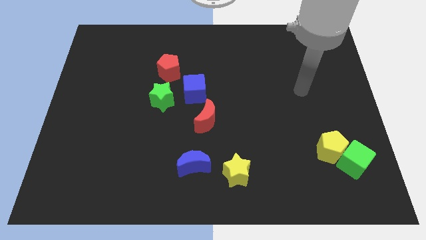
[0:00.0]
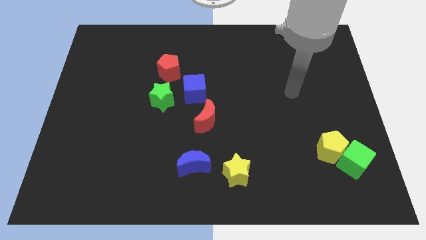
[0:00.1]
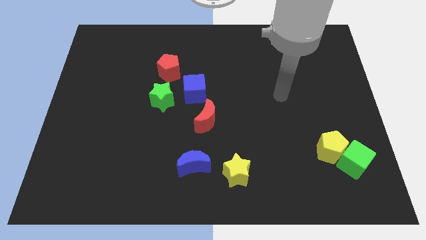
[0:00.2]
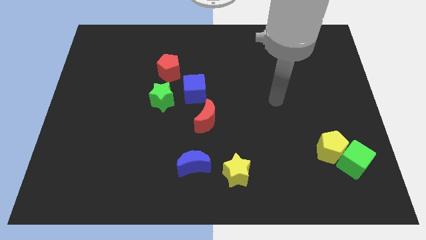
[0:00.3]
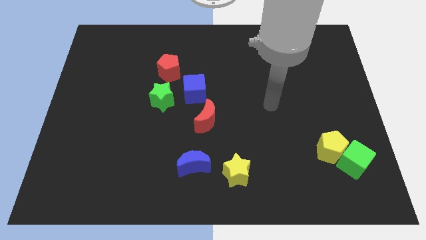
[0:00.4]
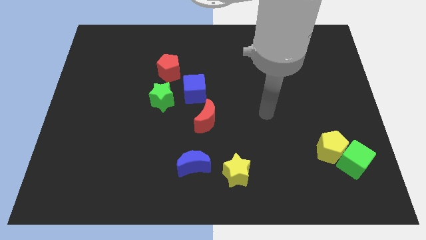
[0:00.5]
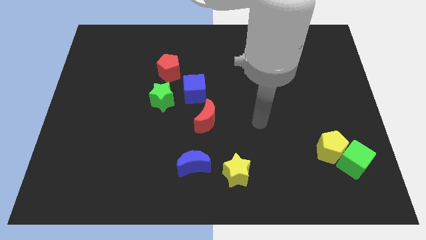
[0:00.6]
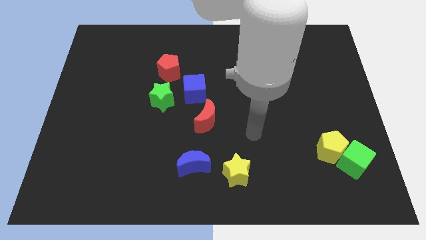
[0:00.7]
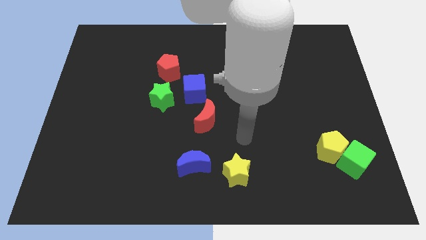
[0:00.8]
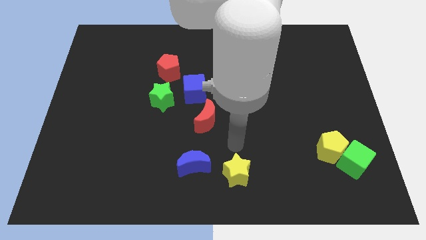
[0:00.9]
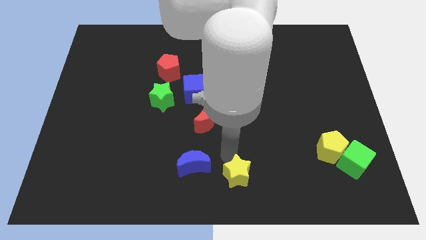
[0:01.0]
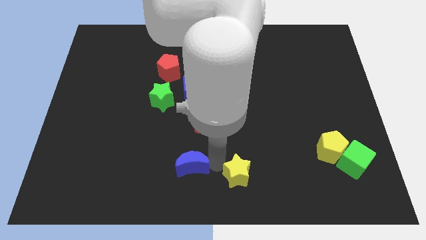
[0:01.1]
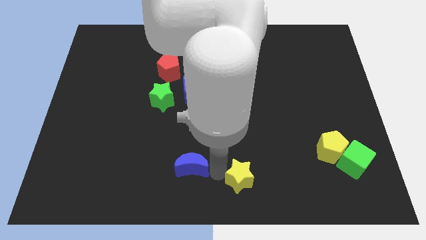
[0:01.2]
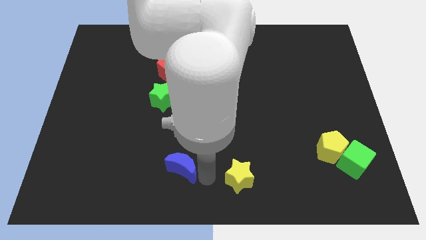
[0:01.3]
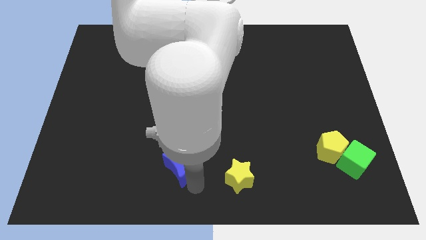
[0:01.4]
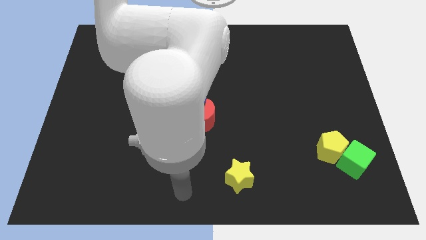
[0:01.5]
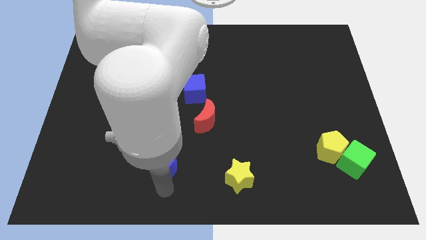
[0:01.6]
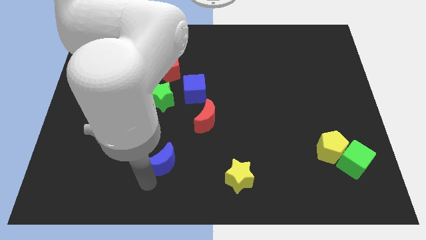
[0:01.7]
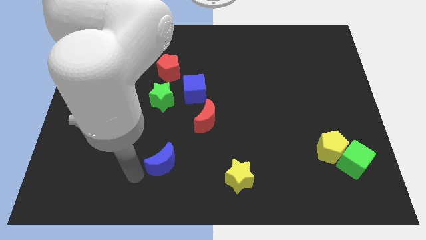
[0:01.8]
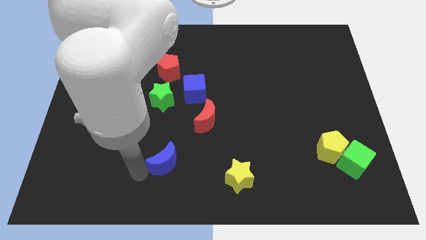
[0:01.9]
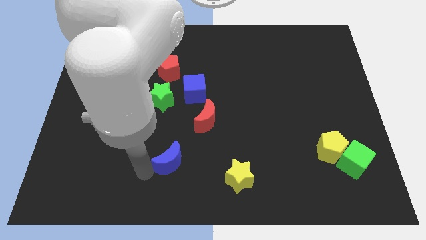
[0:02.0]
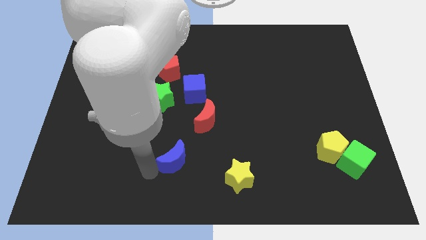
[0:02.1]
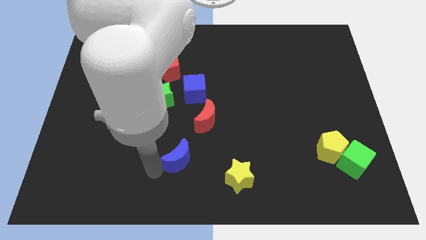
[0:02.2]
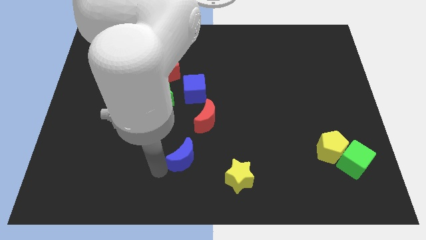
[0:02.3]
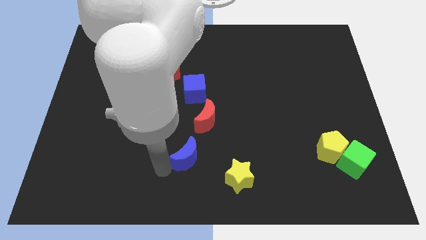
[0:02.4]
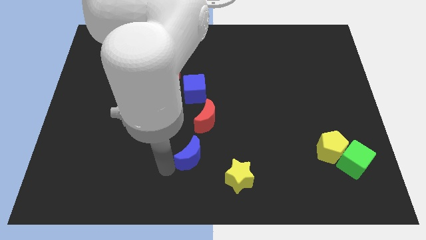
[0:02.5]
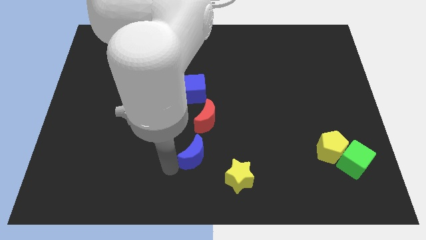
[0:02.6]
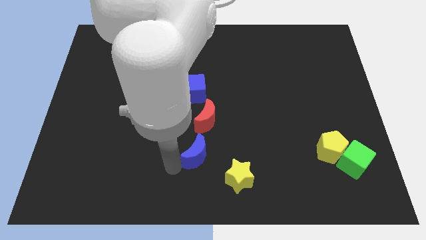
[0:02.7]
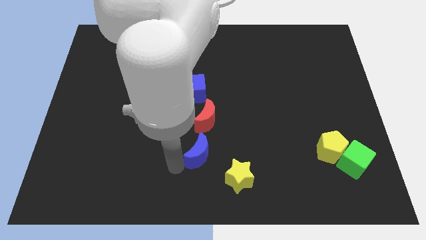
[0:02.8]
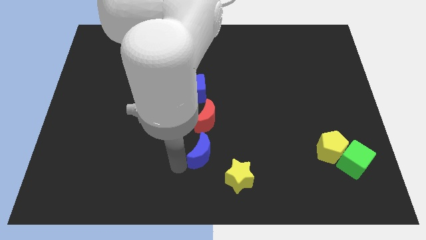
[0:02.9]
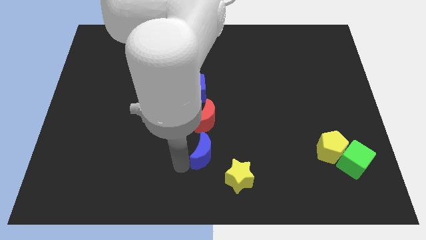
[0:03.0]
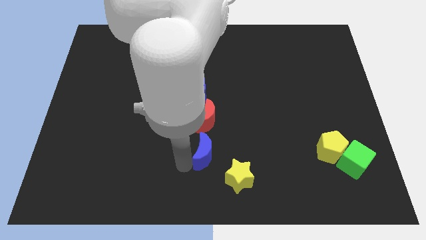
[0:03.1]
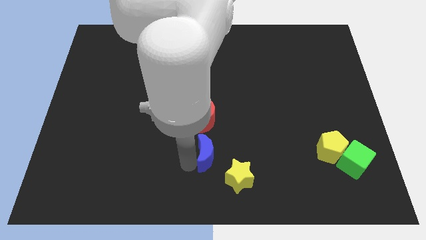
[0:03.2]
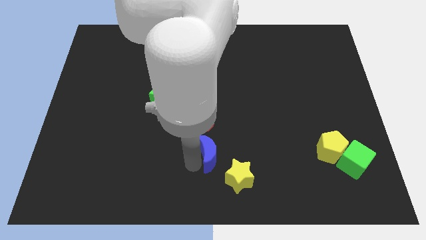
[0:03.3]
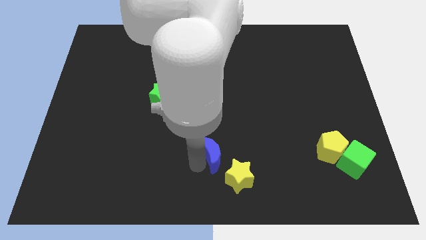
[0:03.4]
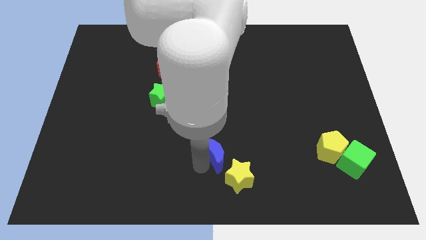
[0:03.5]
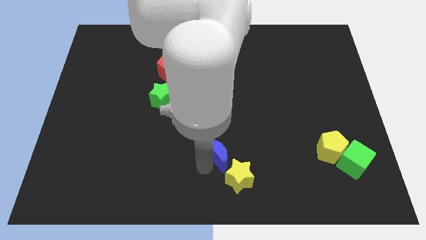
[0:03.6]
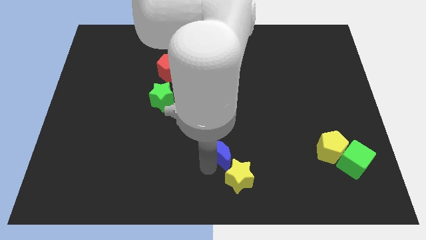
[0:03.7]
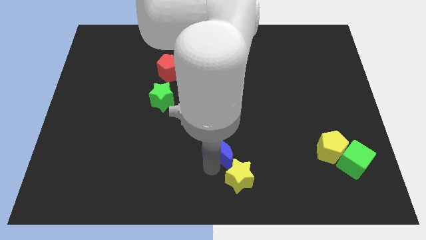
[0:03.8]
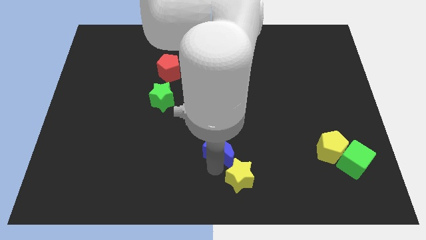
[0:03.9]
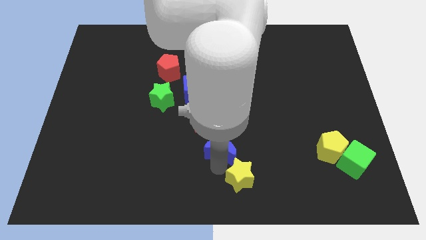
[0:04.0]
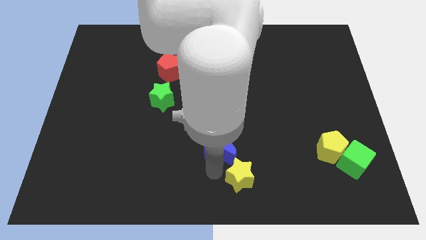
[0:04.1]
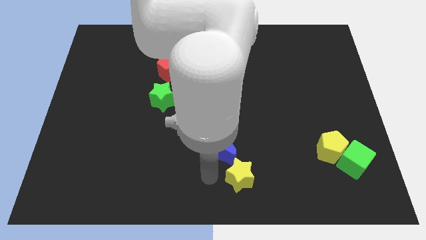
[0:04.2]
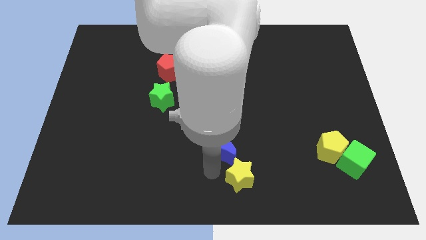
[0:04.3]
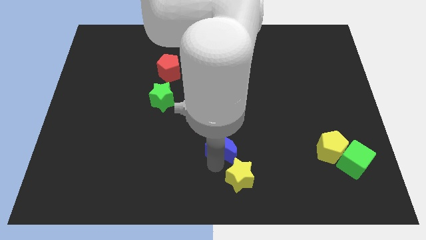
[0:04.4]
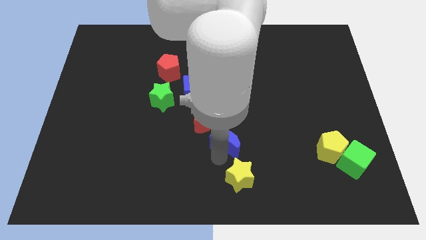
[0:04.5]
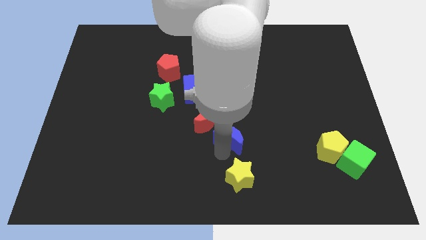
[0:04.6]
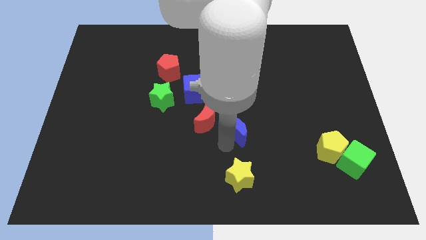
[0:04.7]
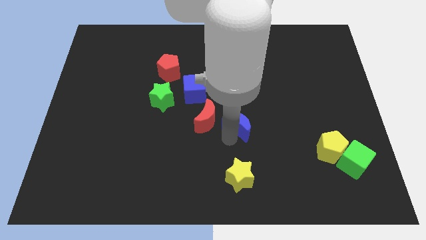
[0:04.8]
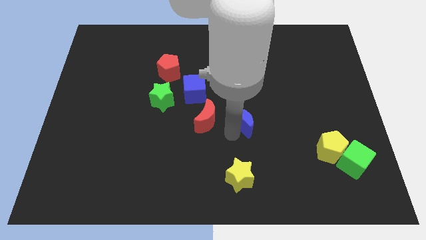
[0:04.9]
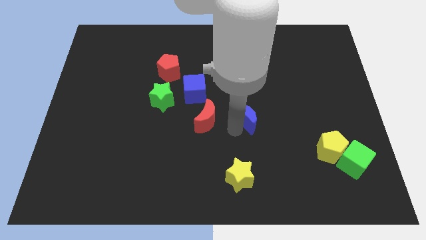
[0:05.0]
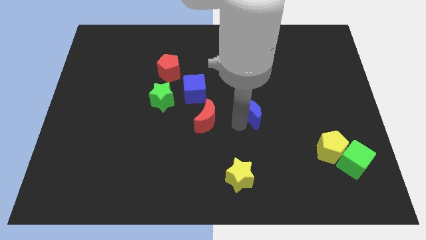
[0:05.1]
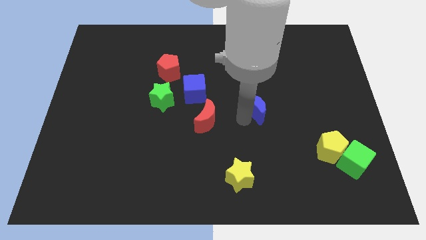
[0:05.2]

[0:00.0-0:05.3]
slide the blue moon diagonally up and to the right

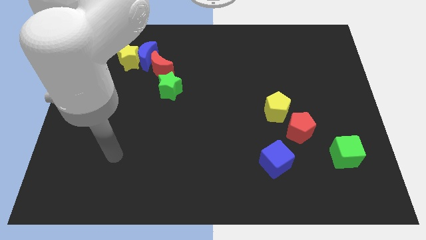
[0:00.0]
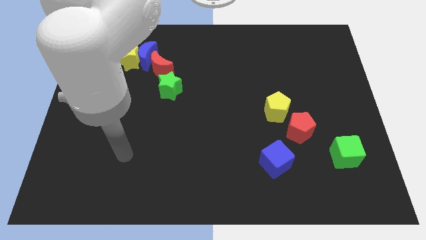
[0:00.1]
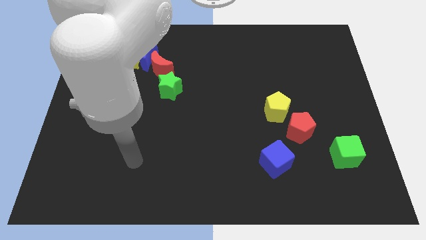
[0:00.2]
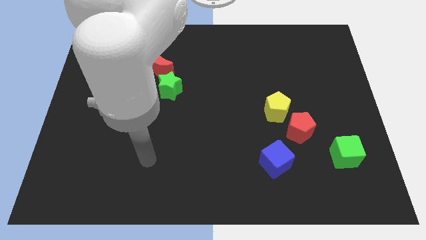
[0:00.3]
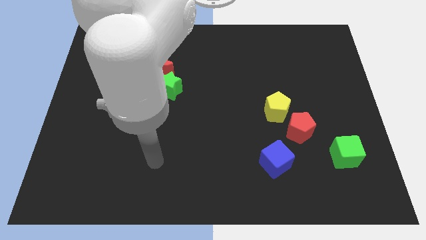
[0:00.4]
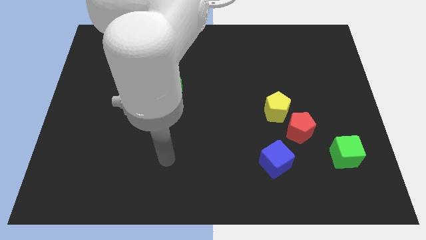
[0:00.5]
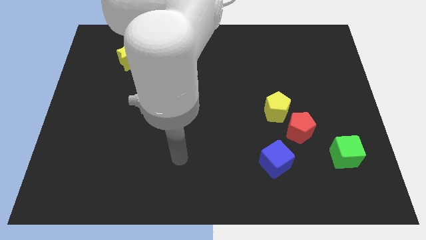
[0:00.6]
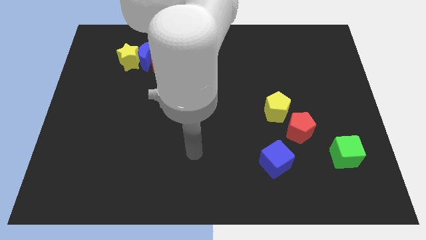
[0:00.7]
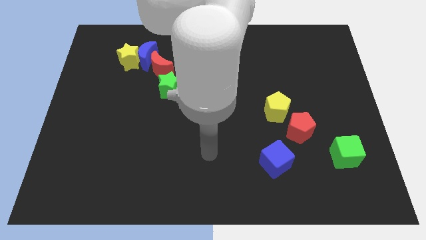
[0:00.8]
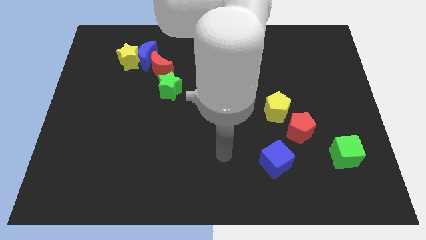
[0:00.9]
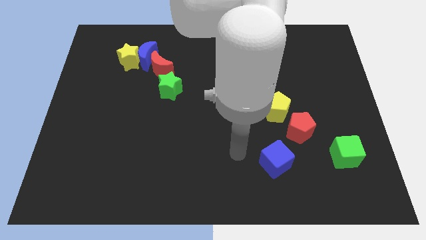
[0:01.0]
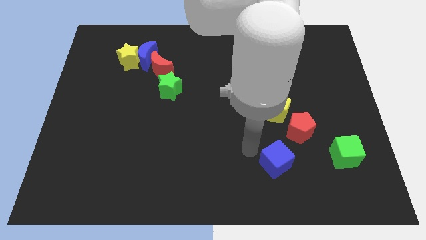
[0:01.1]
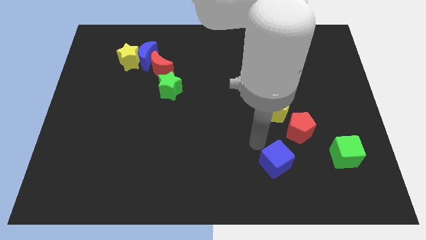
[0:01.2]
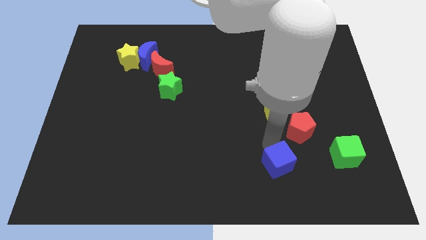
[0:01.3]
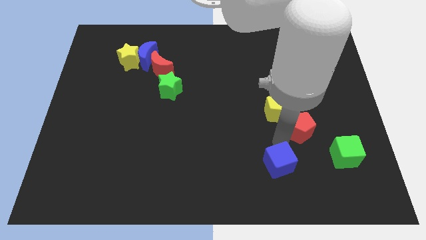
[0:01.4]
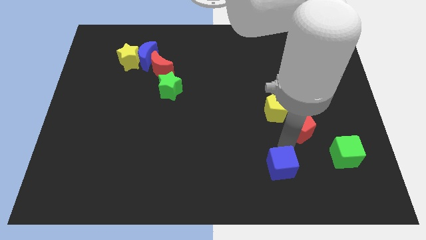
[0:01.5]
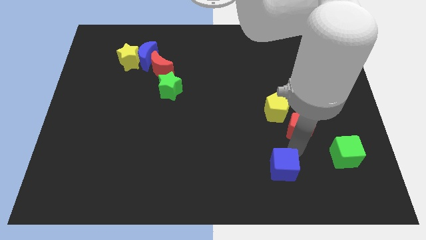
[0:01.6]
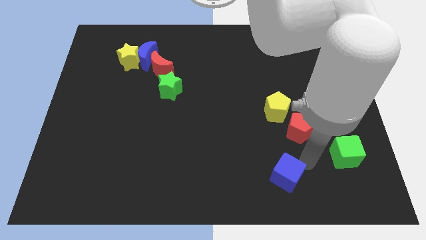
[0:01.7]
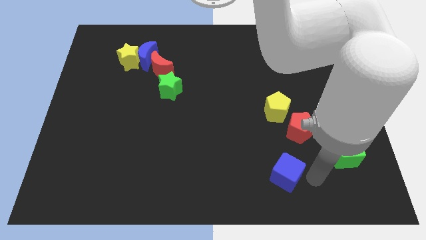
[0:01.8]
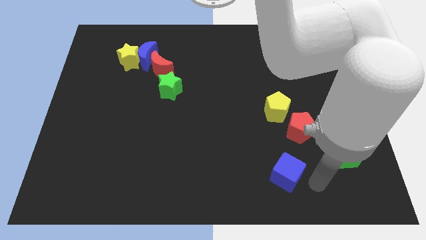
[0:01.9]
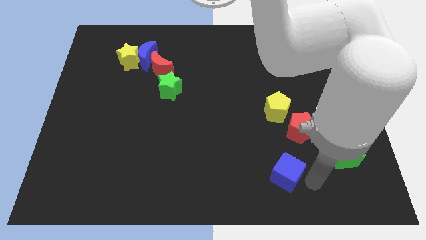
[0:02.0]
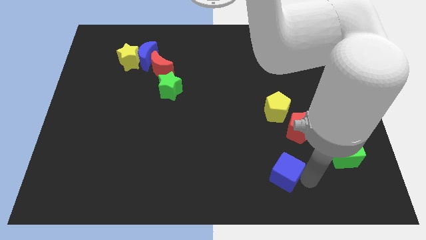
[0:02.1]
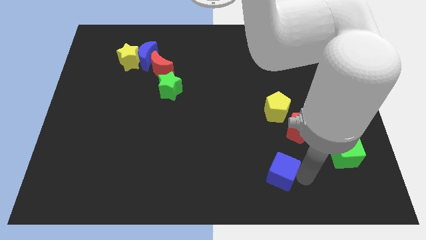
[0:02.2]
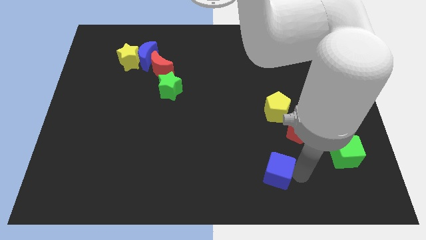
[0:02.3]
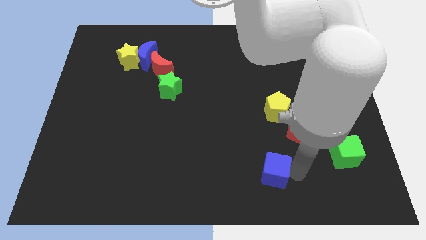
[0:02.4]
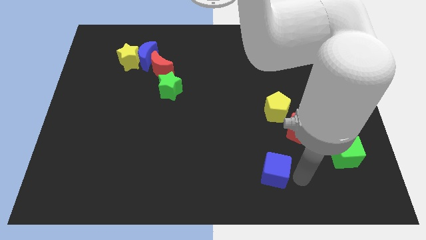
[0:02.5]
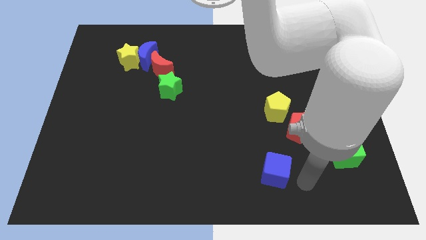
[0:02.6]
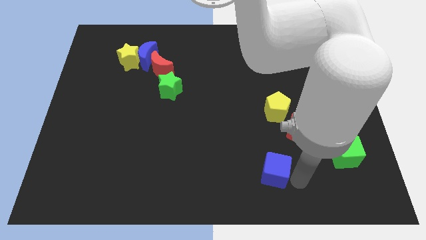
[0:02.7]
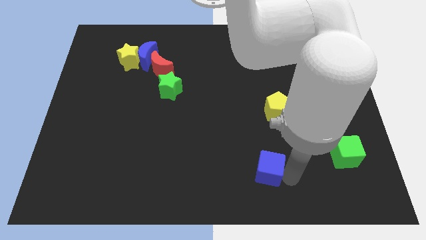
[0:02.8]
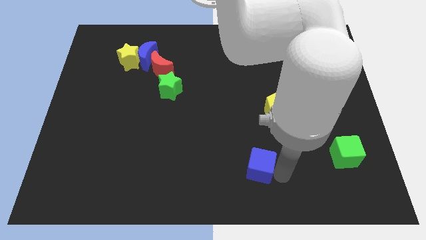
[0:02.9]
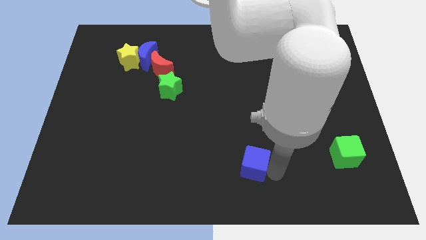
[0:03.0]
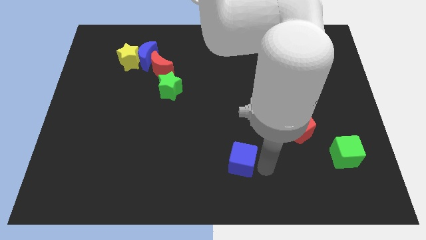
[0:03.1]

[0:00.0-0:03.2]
move the blue cube left a little

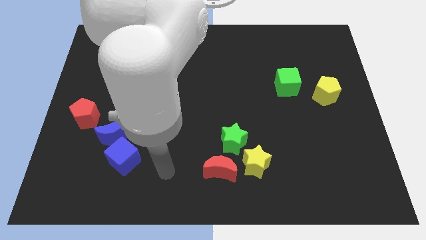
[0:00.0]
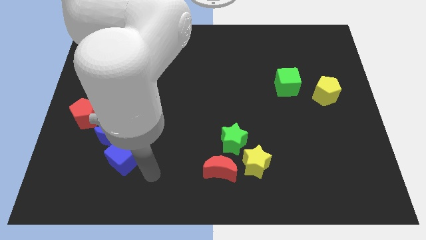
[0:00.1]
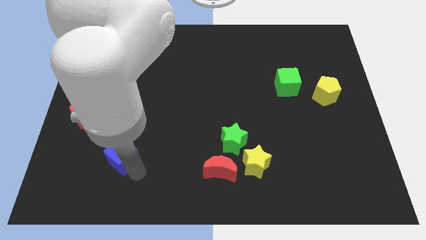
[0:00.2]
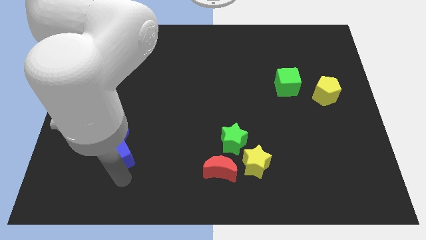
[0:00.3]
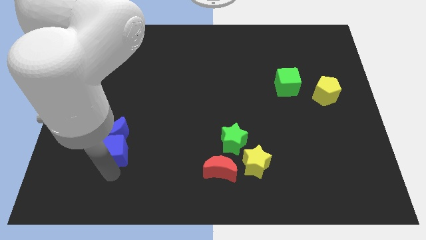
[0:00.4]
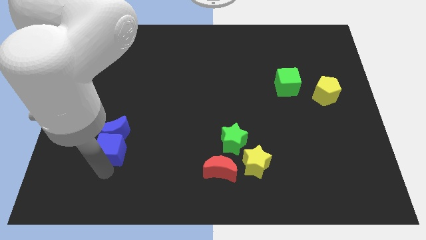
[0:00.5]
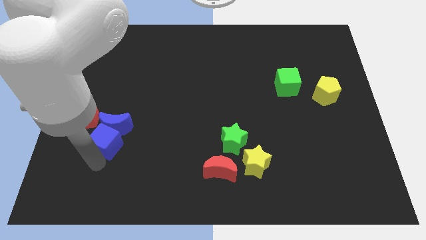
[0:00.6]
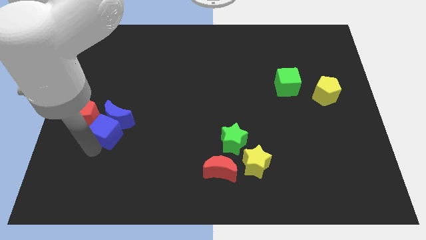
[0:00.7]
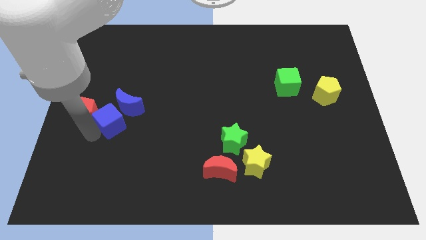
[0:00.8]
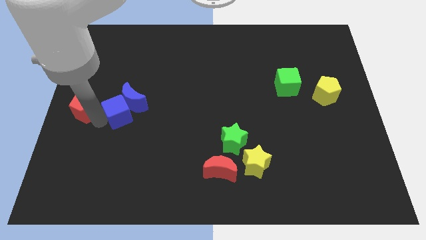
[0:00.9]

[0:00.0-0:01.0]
slide the blue moon upwards and then to the right slightly
